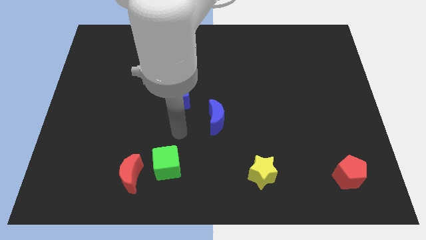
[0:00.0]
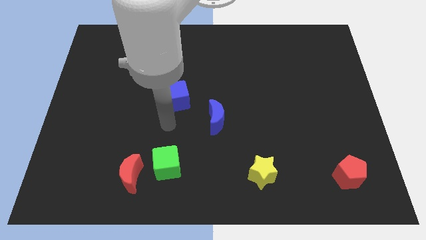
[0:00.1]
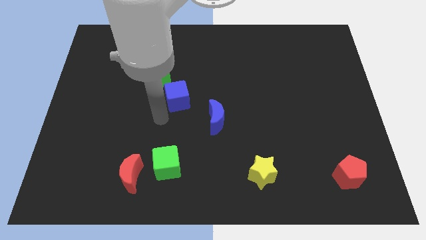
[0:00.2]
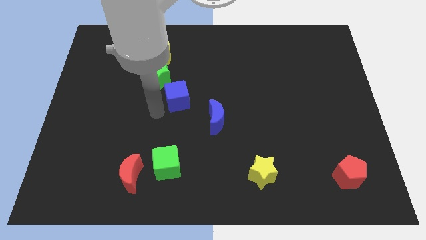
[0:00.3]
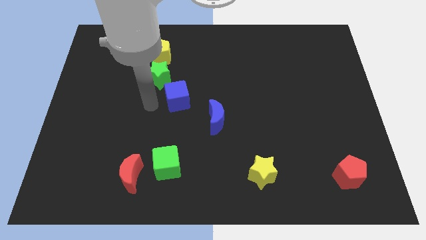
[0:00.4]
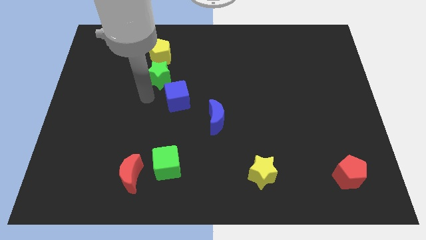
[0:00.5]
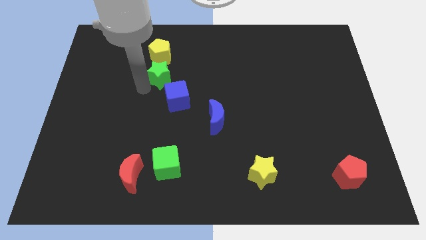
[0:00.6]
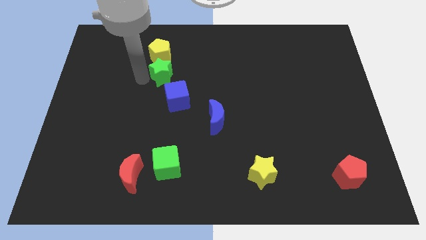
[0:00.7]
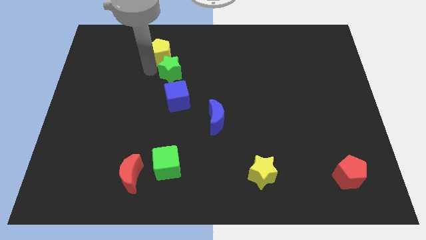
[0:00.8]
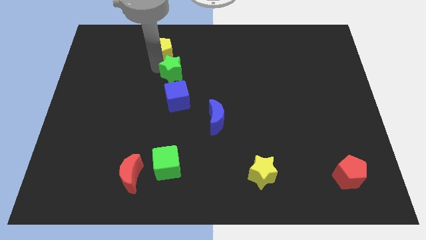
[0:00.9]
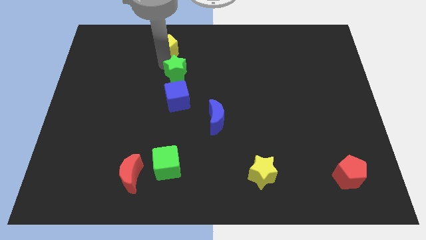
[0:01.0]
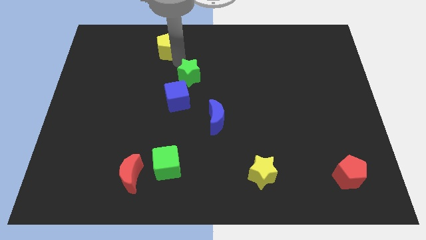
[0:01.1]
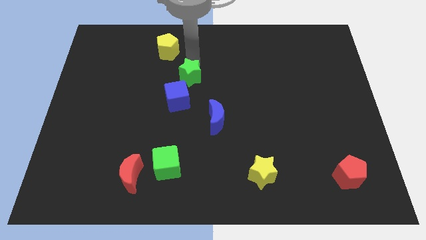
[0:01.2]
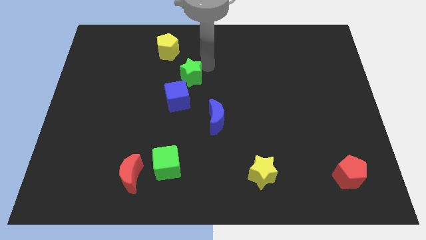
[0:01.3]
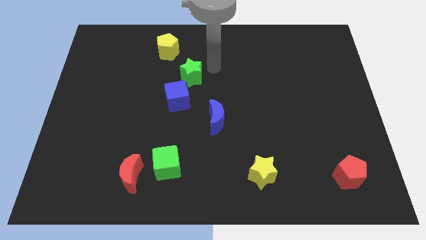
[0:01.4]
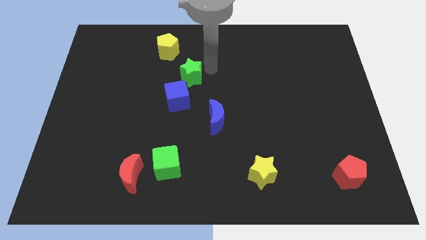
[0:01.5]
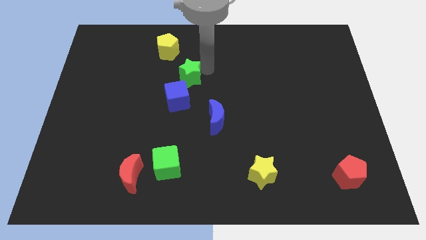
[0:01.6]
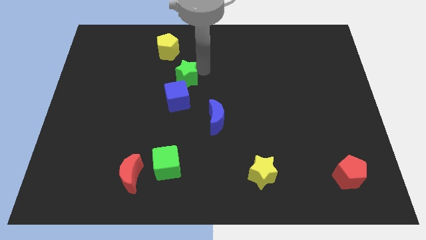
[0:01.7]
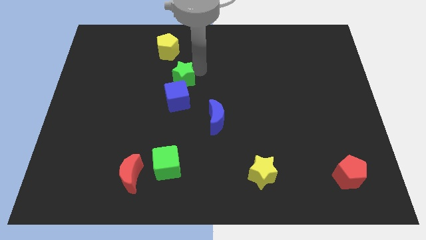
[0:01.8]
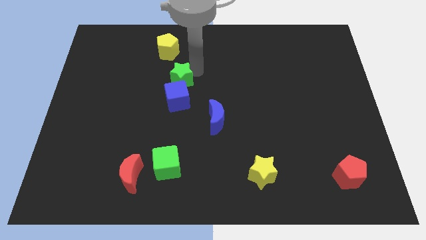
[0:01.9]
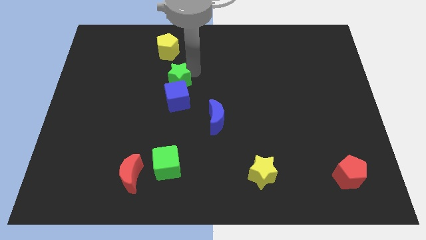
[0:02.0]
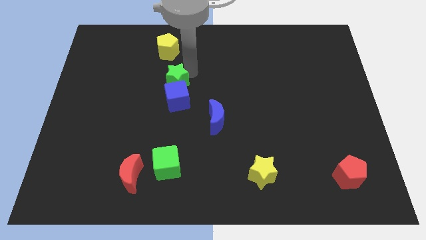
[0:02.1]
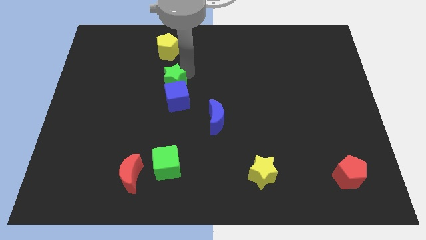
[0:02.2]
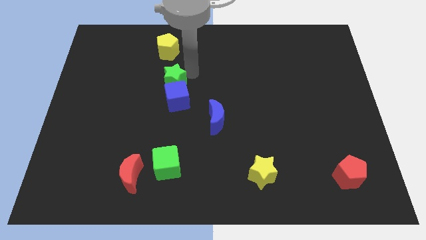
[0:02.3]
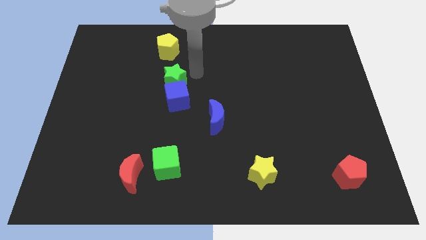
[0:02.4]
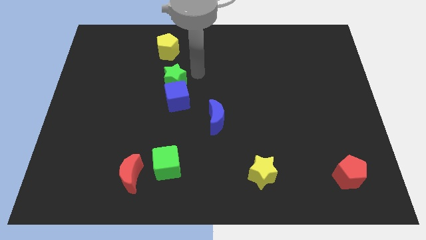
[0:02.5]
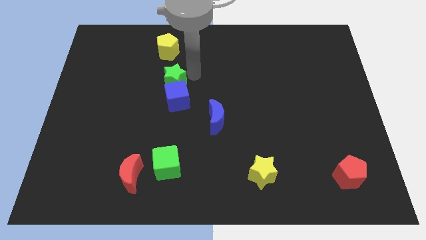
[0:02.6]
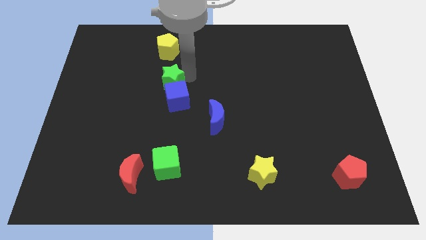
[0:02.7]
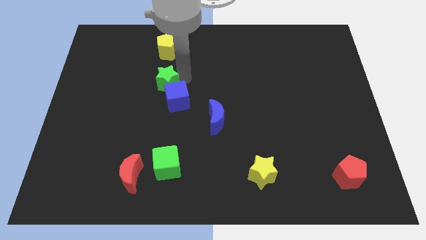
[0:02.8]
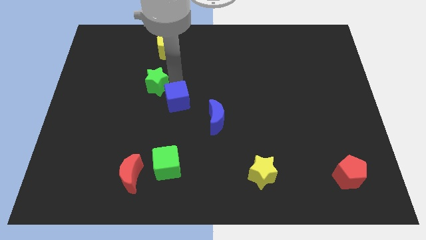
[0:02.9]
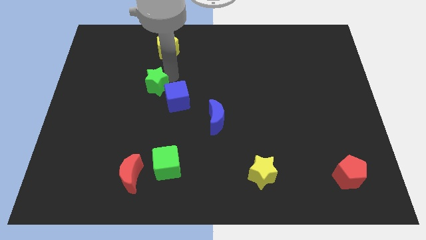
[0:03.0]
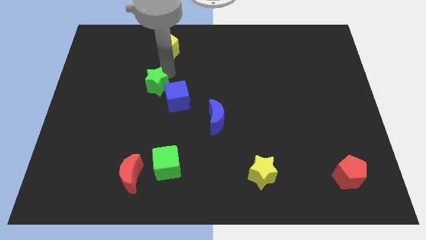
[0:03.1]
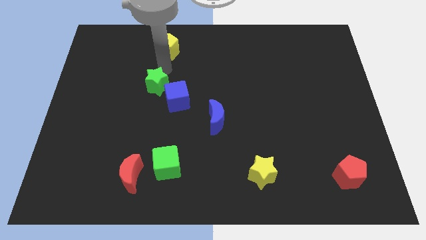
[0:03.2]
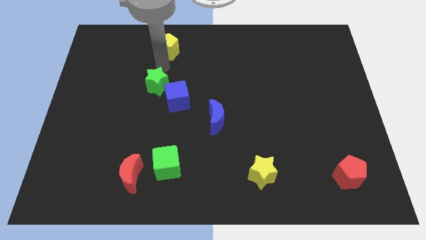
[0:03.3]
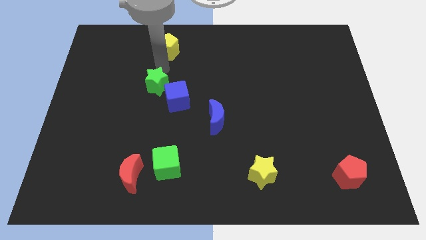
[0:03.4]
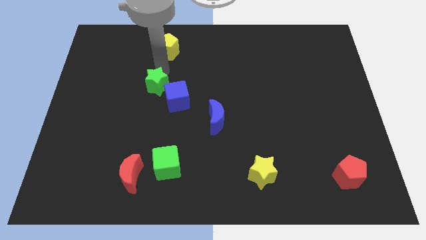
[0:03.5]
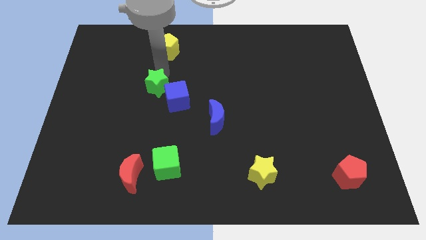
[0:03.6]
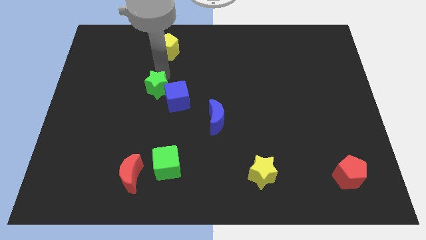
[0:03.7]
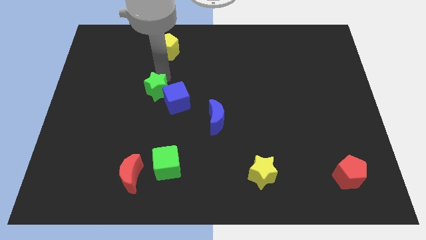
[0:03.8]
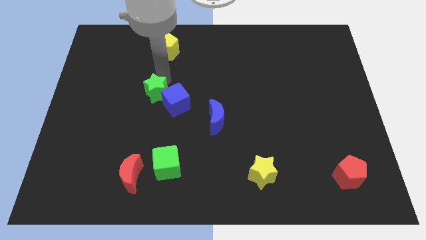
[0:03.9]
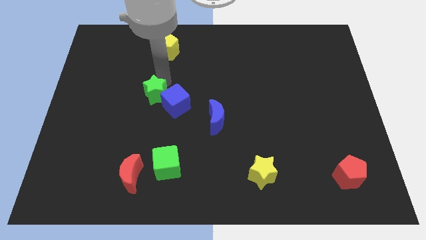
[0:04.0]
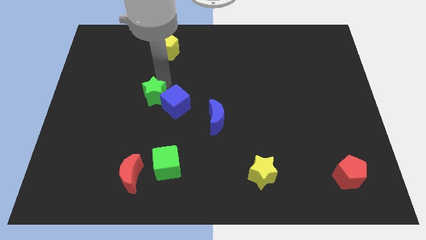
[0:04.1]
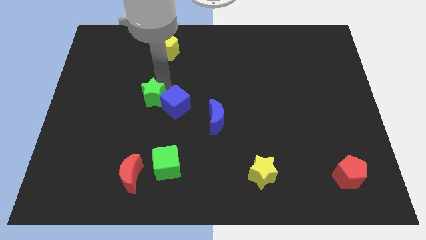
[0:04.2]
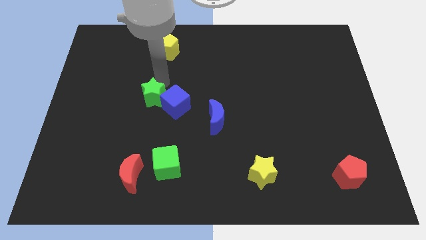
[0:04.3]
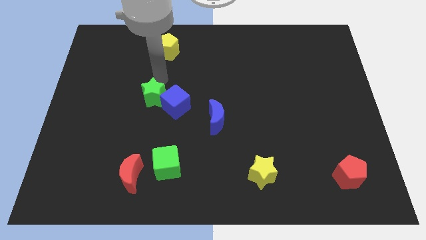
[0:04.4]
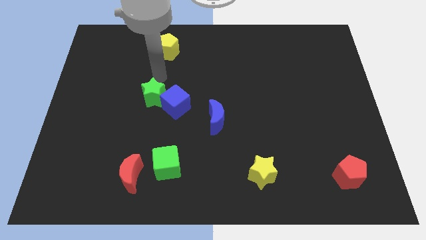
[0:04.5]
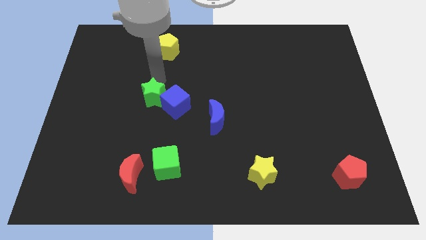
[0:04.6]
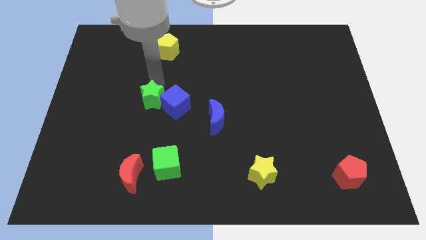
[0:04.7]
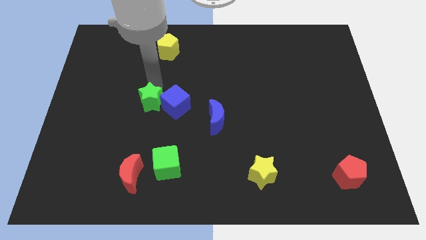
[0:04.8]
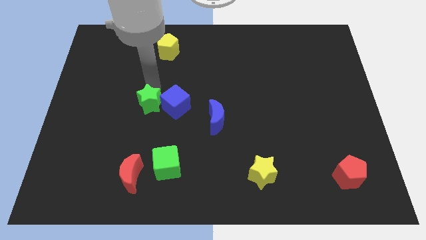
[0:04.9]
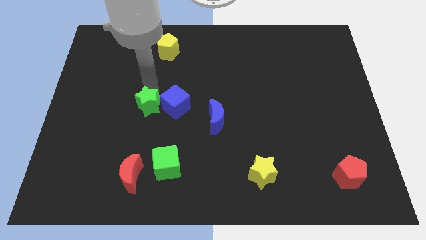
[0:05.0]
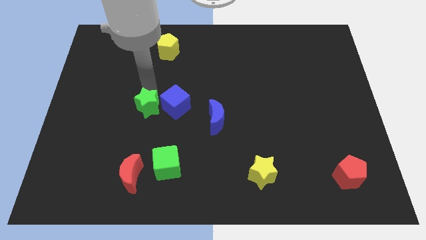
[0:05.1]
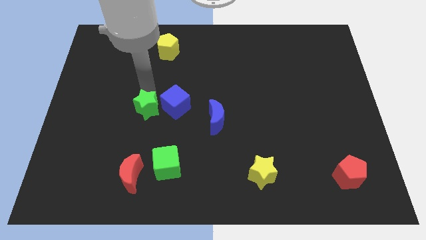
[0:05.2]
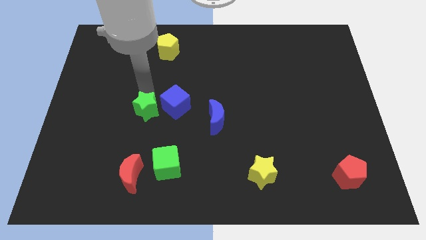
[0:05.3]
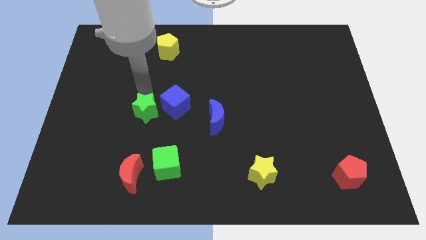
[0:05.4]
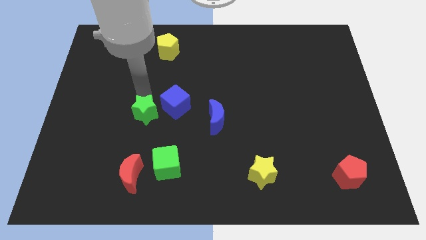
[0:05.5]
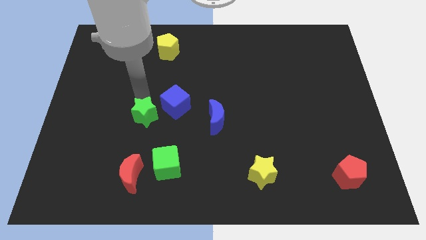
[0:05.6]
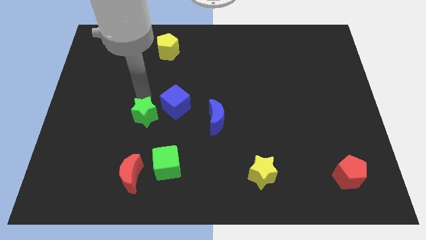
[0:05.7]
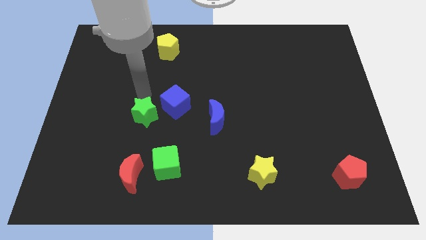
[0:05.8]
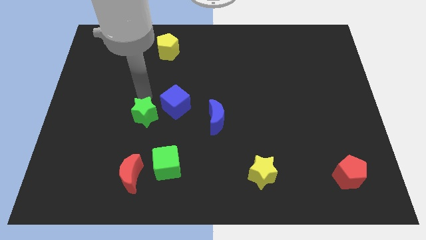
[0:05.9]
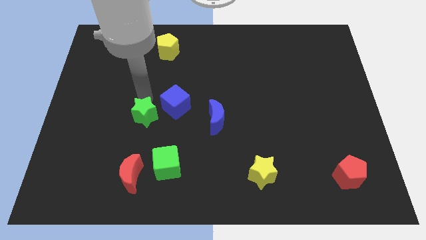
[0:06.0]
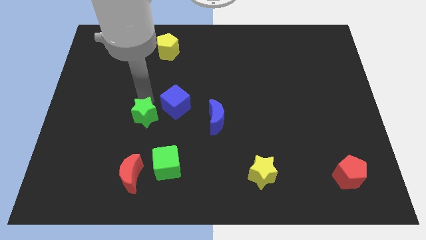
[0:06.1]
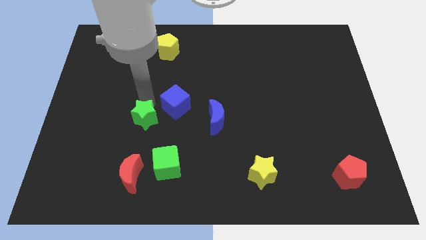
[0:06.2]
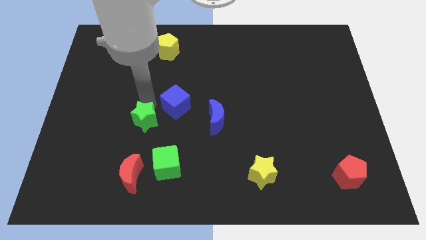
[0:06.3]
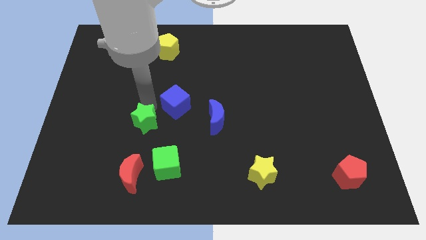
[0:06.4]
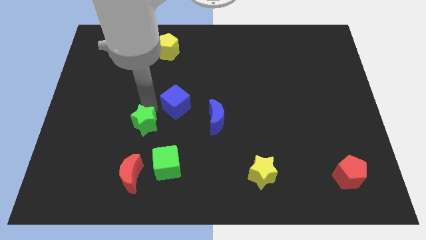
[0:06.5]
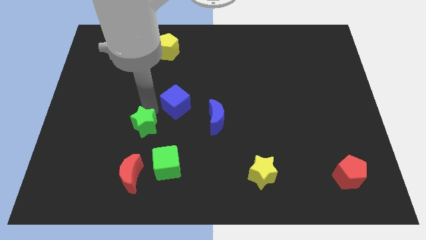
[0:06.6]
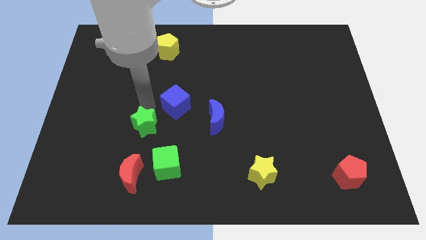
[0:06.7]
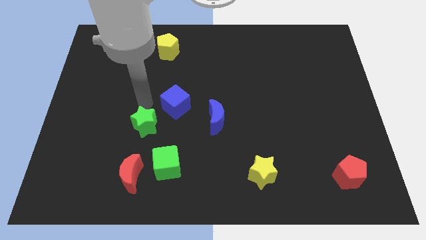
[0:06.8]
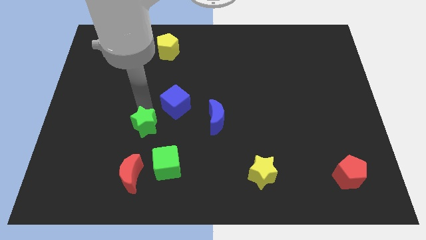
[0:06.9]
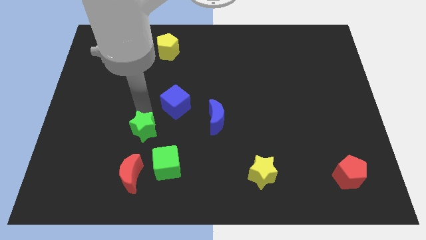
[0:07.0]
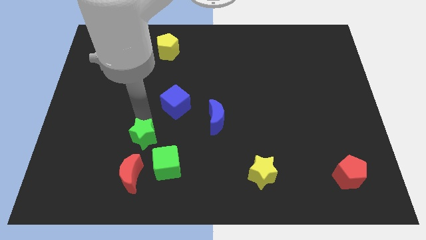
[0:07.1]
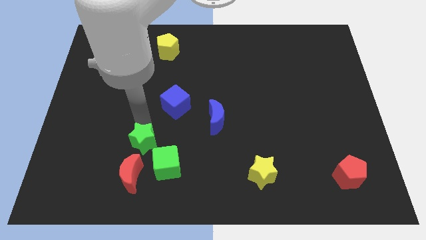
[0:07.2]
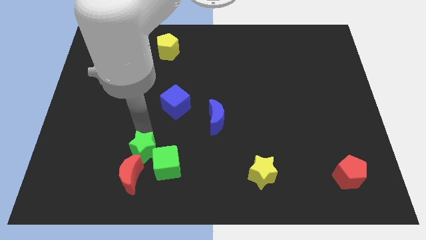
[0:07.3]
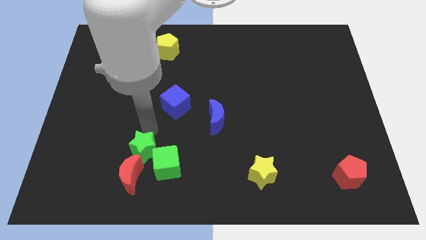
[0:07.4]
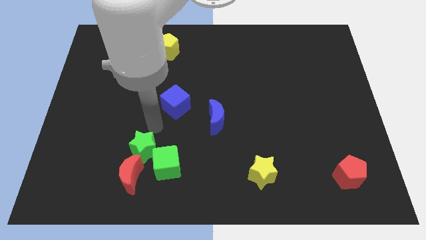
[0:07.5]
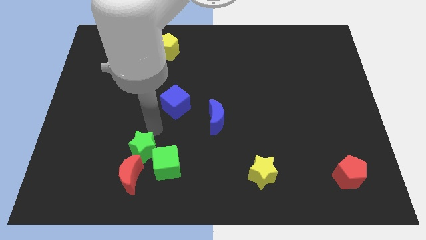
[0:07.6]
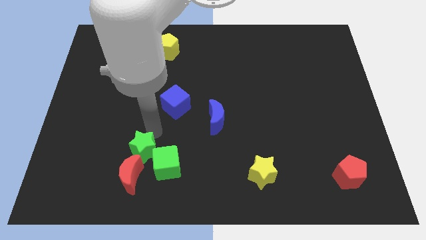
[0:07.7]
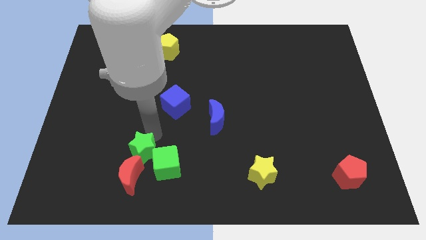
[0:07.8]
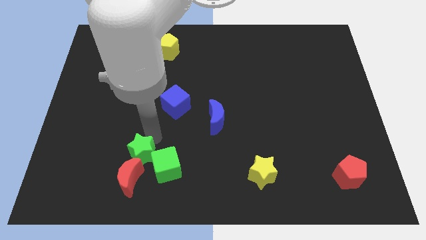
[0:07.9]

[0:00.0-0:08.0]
slide the green star close to the red moon
